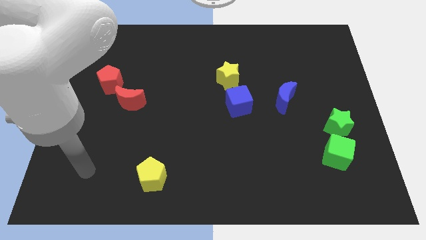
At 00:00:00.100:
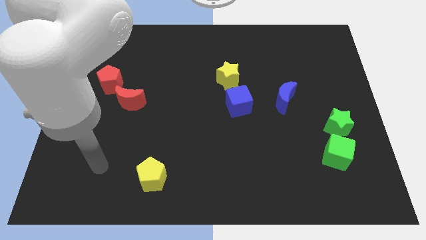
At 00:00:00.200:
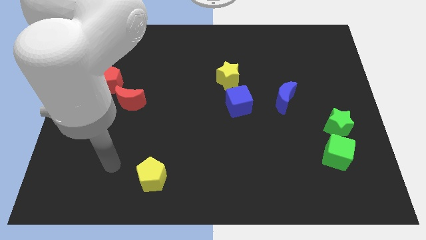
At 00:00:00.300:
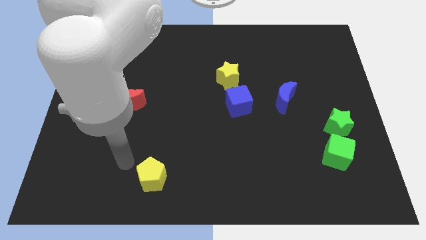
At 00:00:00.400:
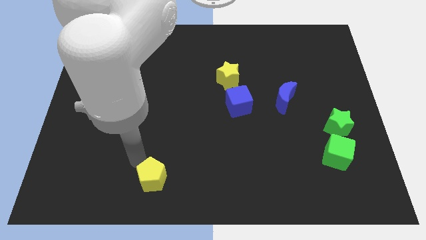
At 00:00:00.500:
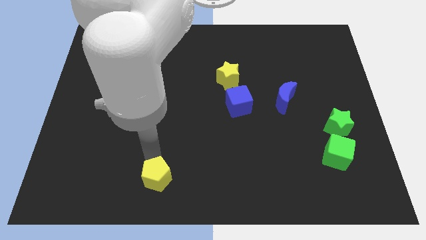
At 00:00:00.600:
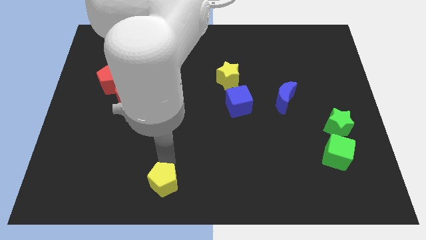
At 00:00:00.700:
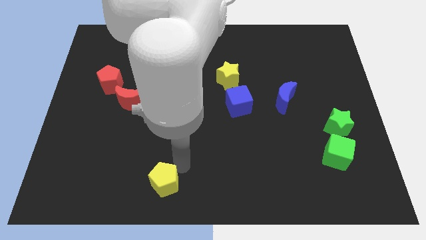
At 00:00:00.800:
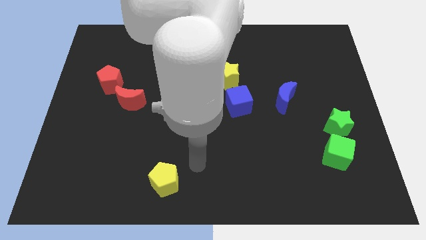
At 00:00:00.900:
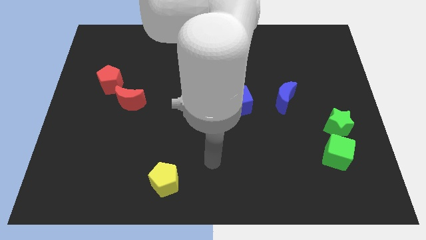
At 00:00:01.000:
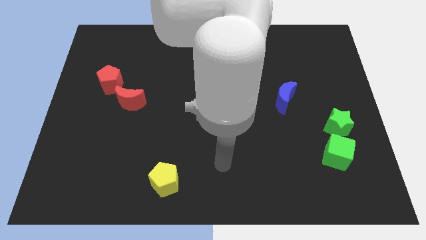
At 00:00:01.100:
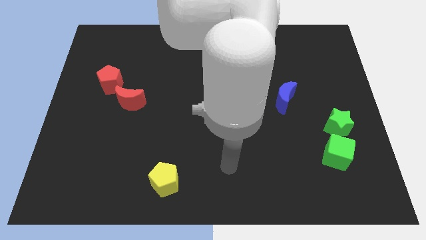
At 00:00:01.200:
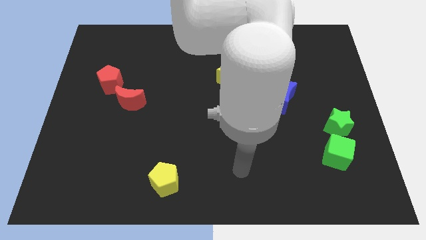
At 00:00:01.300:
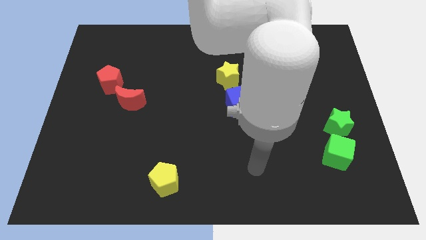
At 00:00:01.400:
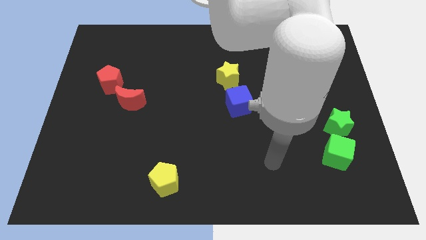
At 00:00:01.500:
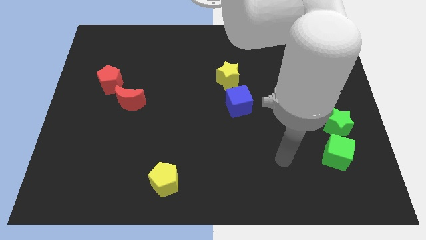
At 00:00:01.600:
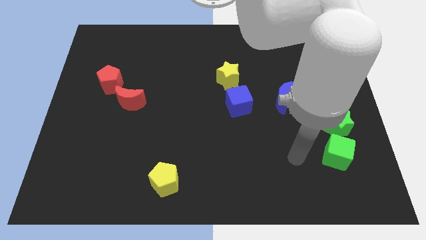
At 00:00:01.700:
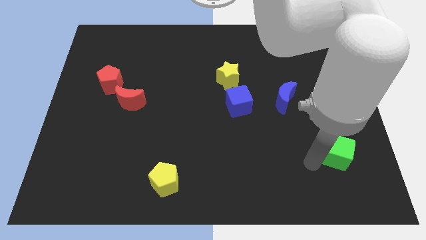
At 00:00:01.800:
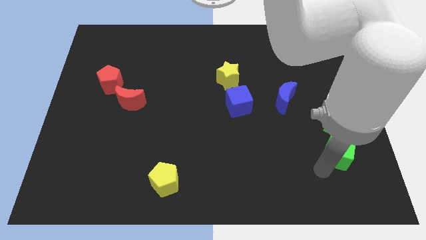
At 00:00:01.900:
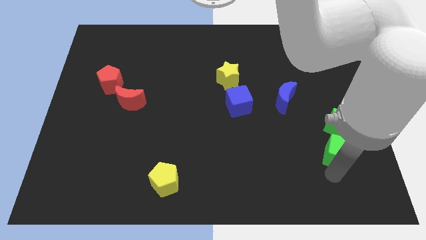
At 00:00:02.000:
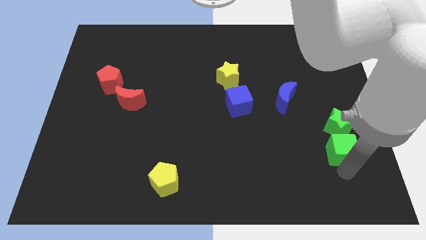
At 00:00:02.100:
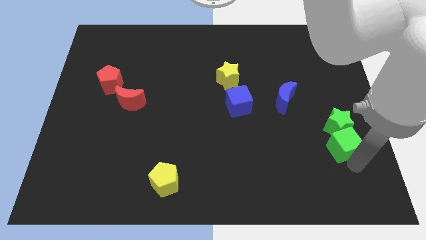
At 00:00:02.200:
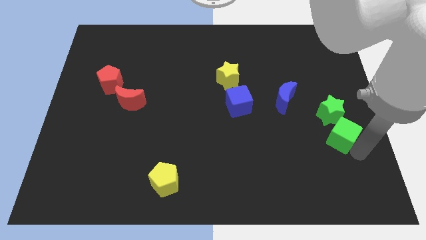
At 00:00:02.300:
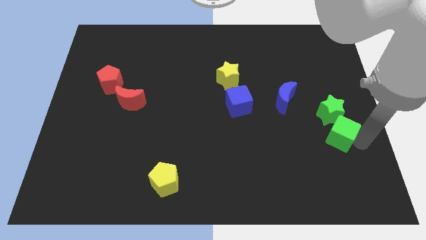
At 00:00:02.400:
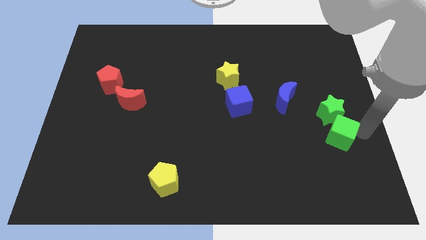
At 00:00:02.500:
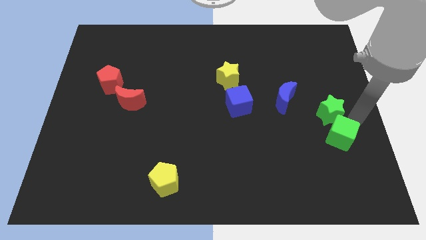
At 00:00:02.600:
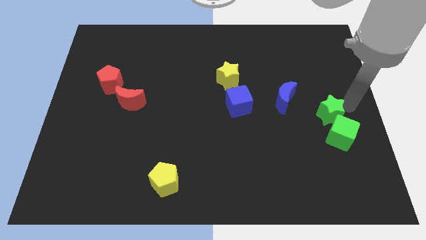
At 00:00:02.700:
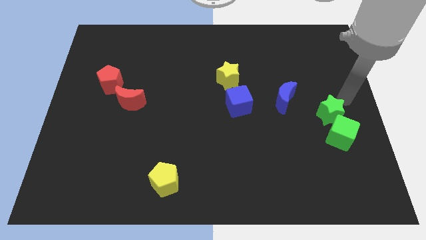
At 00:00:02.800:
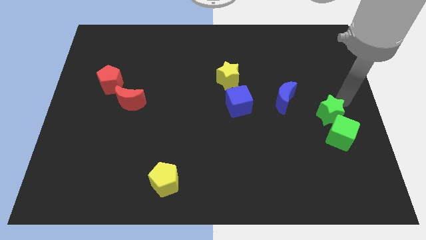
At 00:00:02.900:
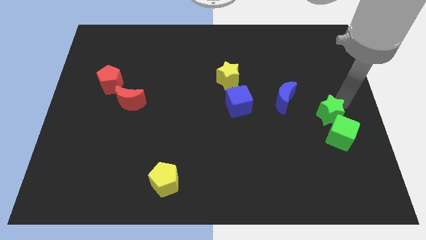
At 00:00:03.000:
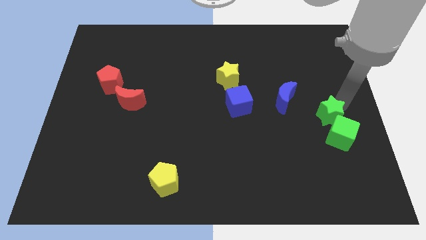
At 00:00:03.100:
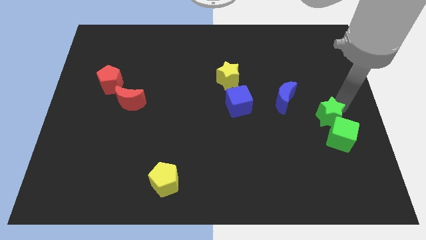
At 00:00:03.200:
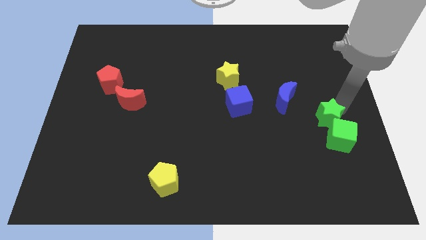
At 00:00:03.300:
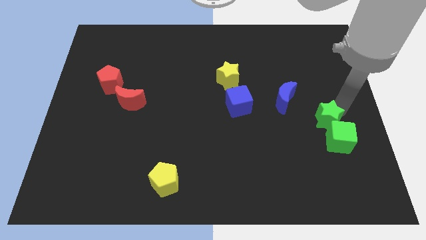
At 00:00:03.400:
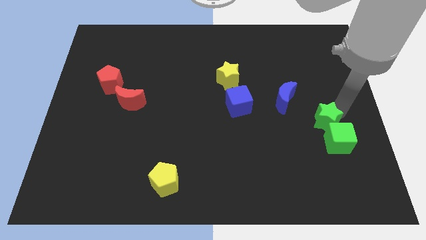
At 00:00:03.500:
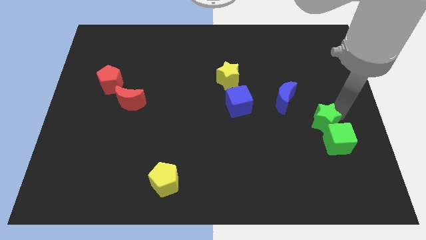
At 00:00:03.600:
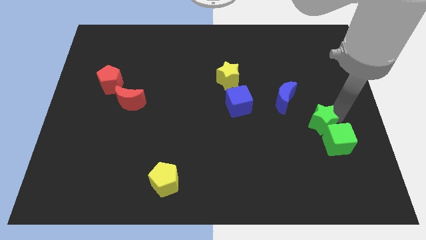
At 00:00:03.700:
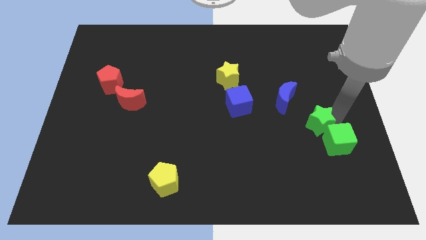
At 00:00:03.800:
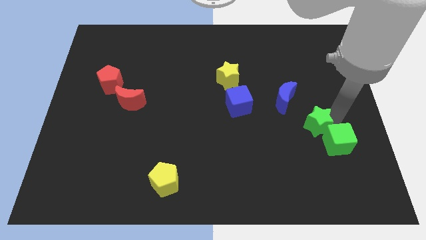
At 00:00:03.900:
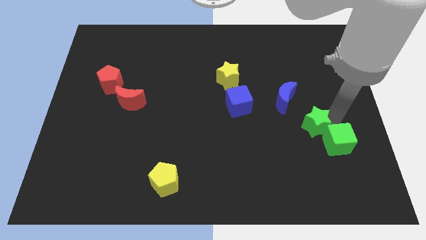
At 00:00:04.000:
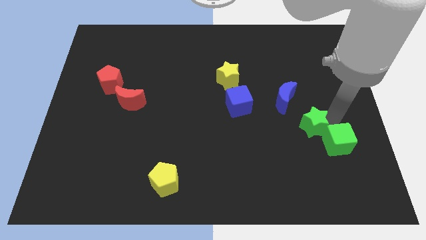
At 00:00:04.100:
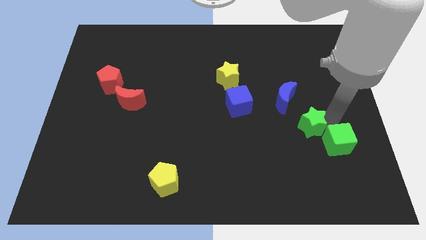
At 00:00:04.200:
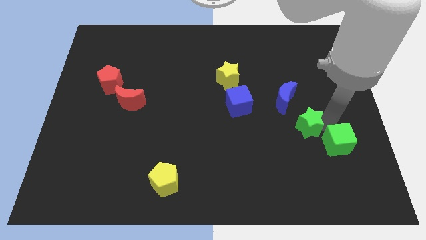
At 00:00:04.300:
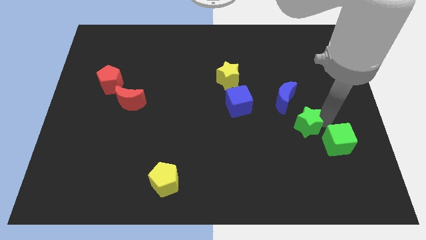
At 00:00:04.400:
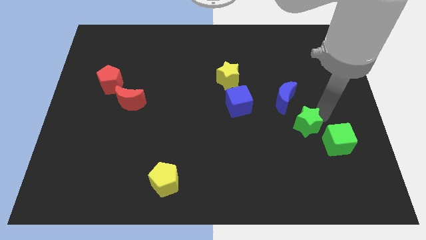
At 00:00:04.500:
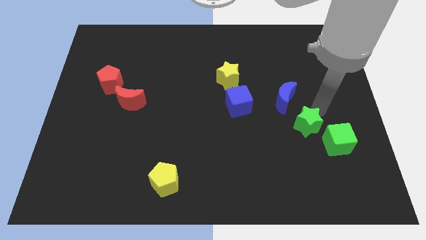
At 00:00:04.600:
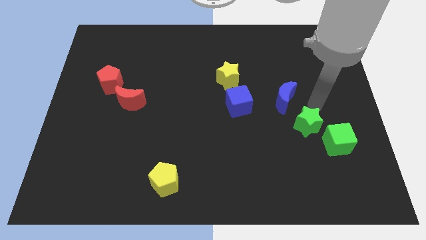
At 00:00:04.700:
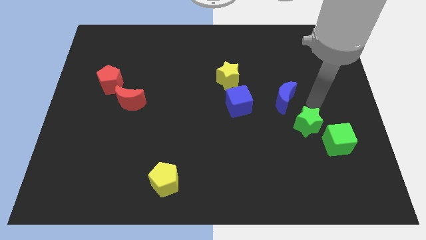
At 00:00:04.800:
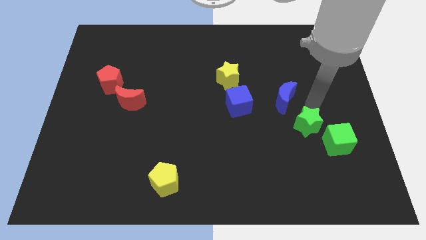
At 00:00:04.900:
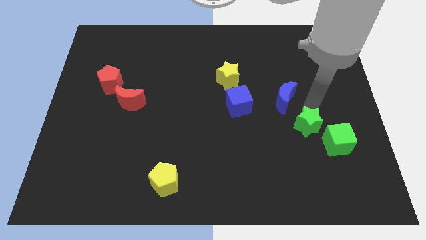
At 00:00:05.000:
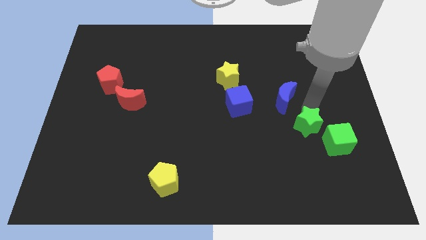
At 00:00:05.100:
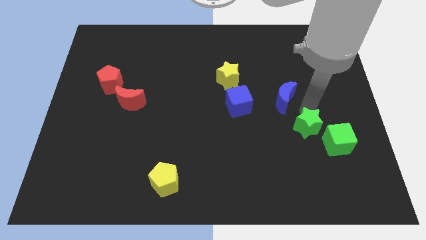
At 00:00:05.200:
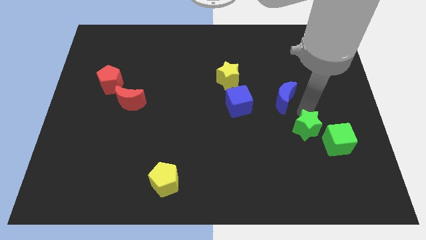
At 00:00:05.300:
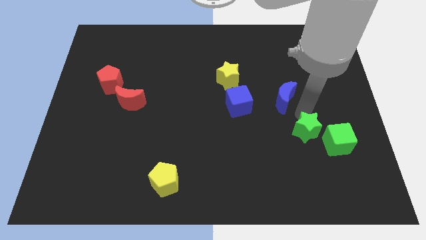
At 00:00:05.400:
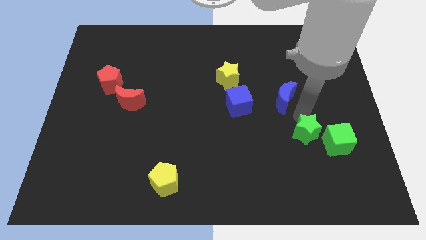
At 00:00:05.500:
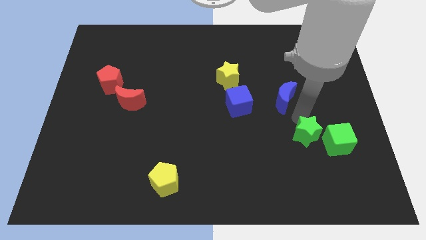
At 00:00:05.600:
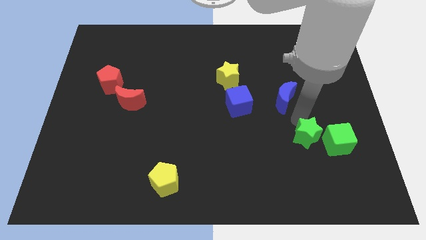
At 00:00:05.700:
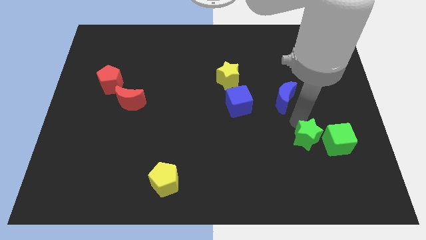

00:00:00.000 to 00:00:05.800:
push the green star a bit diagonally downwards and to the left

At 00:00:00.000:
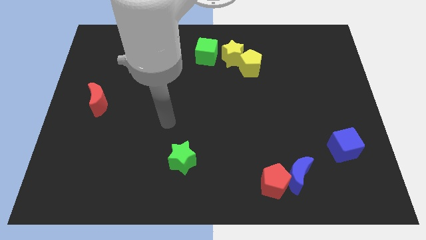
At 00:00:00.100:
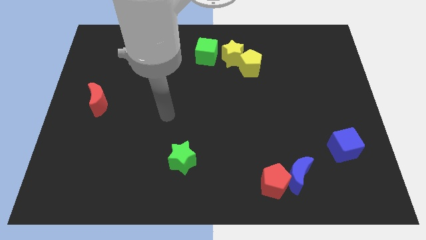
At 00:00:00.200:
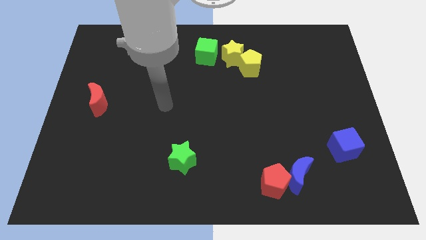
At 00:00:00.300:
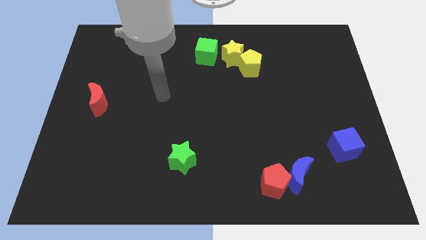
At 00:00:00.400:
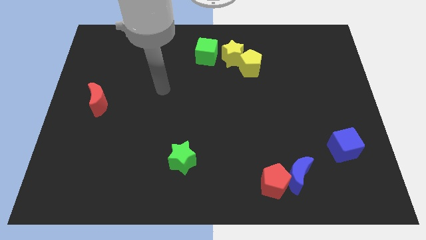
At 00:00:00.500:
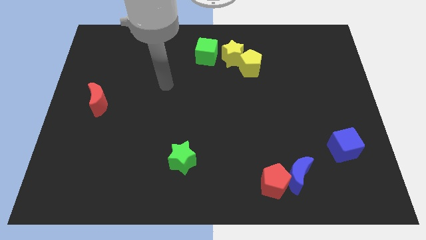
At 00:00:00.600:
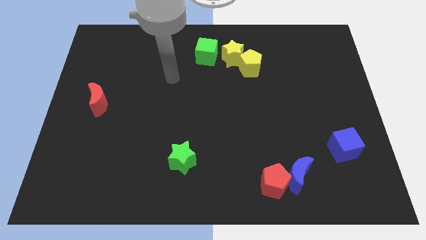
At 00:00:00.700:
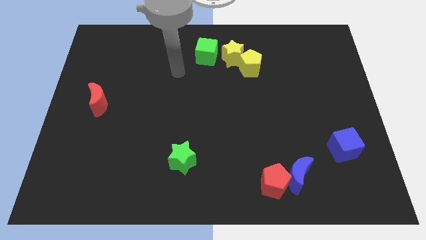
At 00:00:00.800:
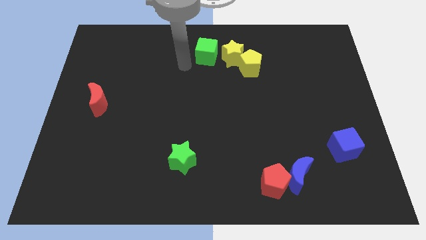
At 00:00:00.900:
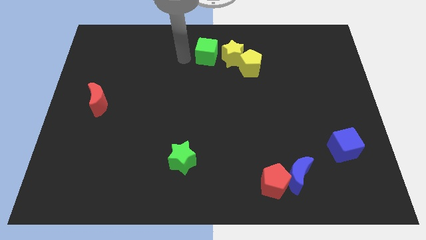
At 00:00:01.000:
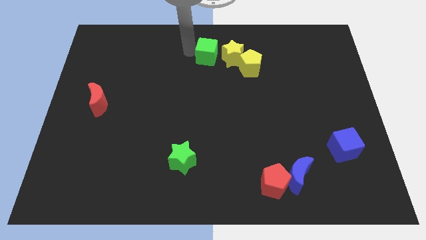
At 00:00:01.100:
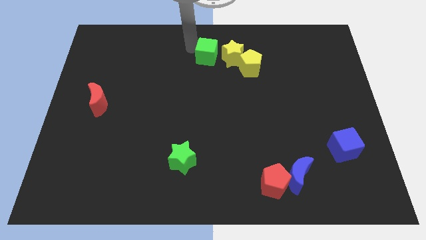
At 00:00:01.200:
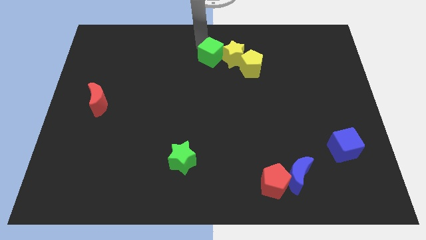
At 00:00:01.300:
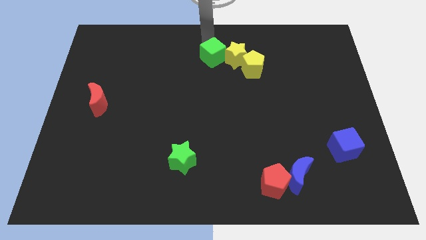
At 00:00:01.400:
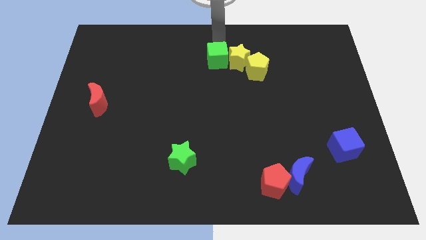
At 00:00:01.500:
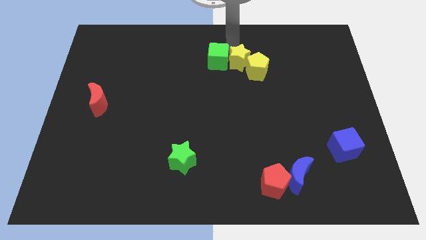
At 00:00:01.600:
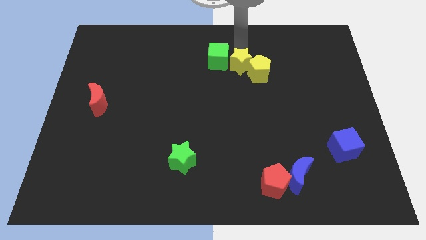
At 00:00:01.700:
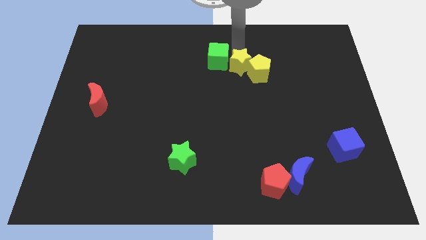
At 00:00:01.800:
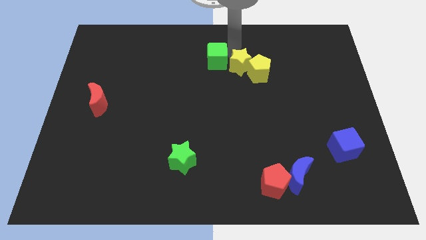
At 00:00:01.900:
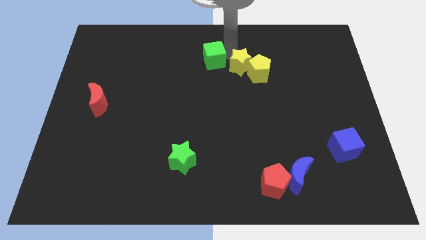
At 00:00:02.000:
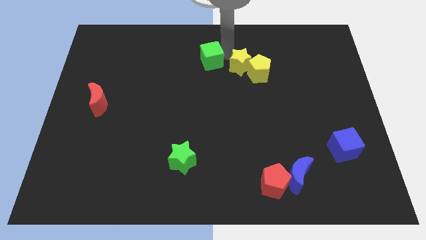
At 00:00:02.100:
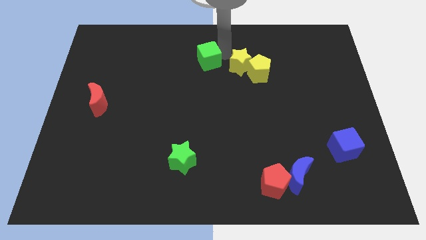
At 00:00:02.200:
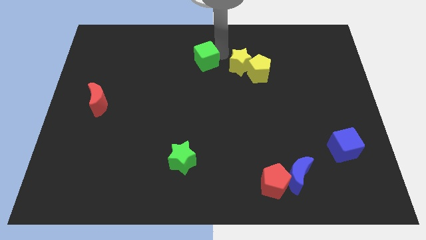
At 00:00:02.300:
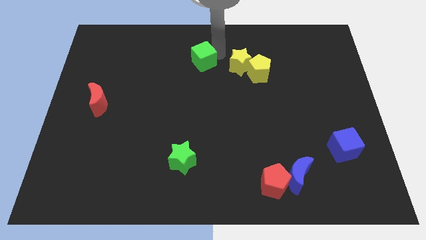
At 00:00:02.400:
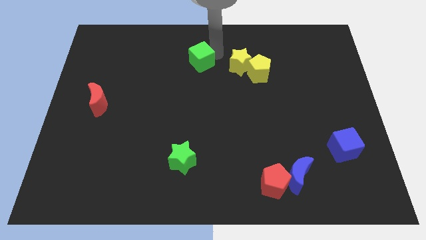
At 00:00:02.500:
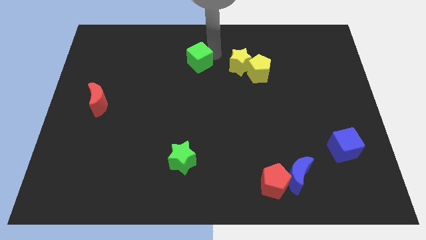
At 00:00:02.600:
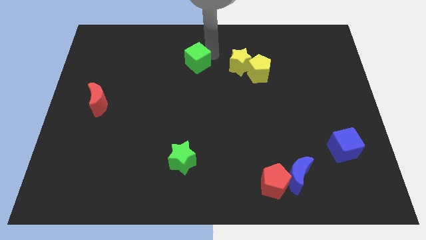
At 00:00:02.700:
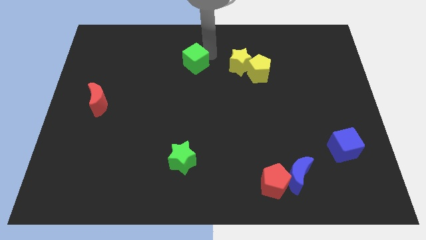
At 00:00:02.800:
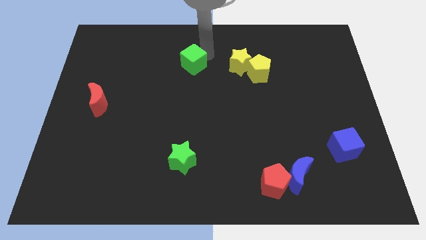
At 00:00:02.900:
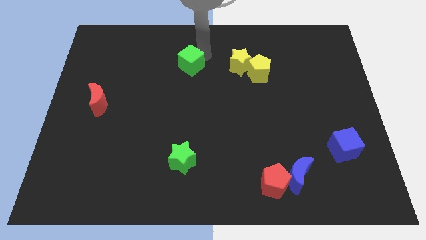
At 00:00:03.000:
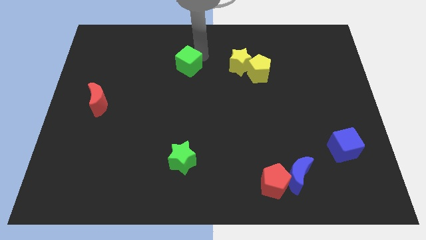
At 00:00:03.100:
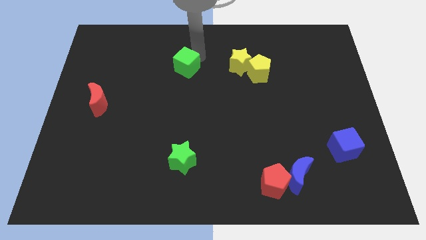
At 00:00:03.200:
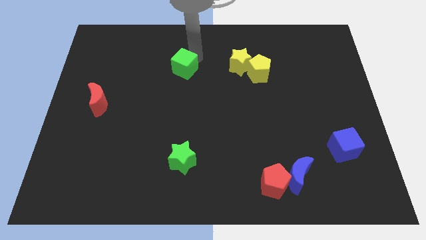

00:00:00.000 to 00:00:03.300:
slide the green cube down and then to the left slightly
